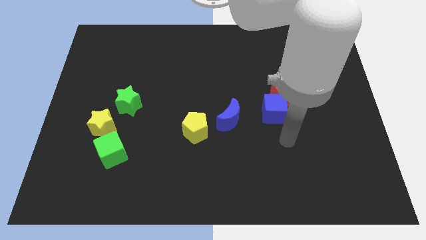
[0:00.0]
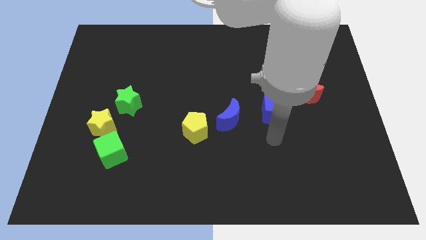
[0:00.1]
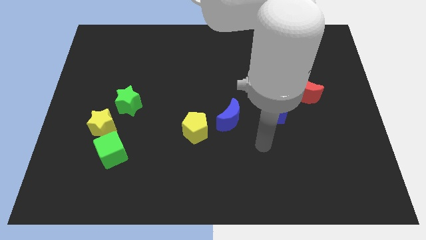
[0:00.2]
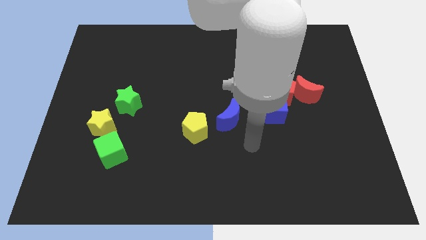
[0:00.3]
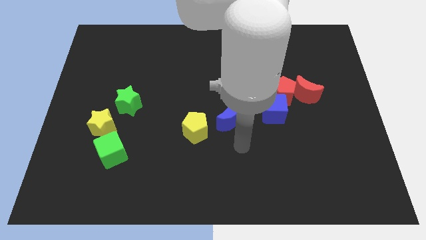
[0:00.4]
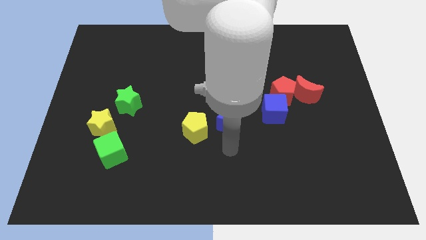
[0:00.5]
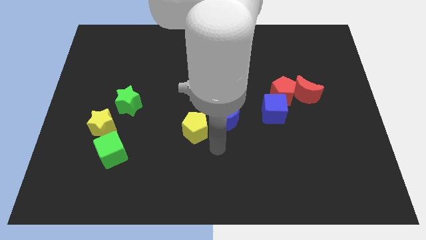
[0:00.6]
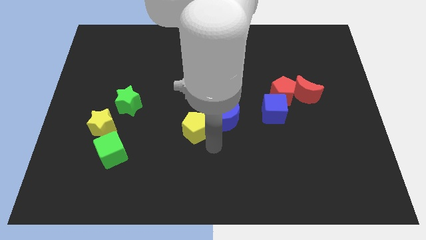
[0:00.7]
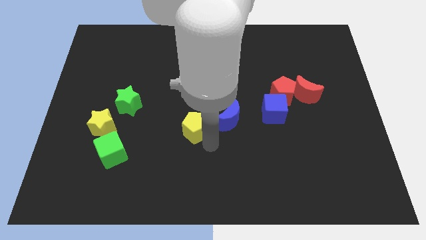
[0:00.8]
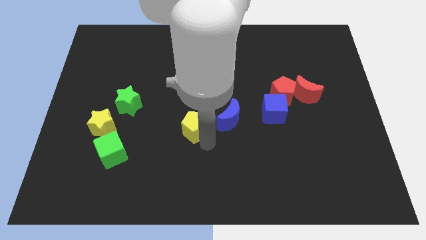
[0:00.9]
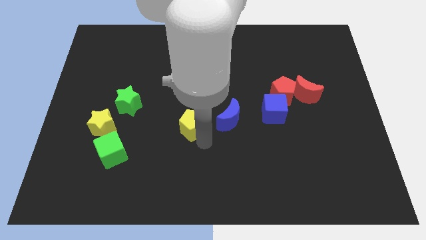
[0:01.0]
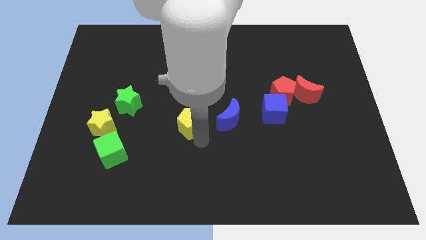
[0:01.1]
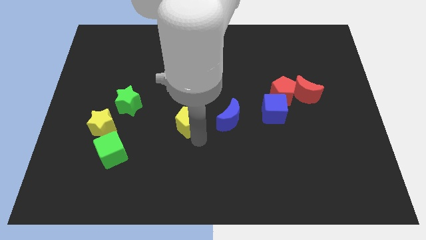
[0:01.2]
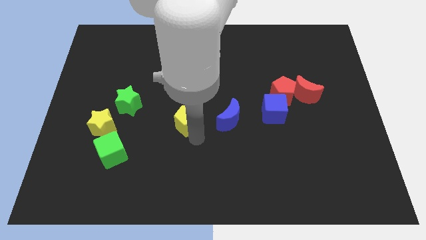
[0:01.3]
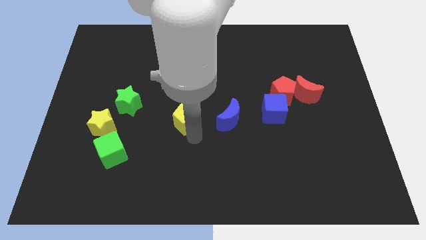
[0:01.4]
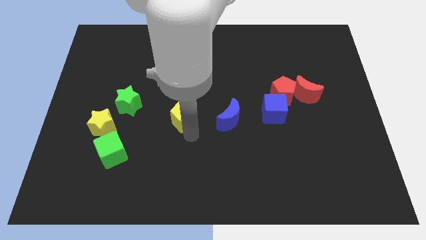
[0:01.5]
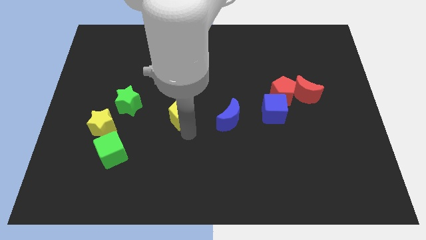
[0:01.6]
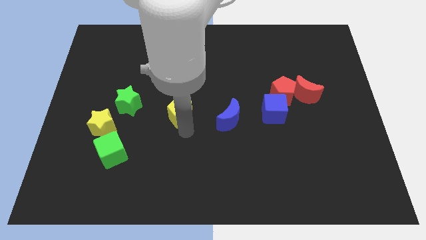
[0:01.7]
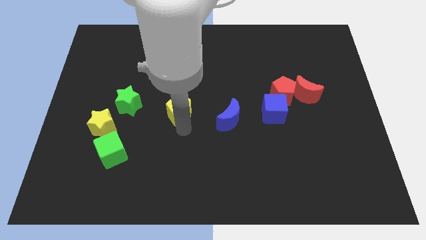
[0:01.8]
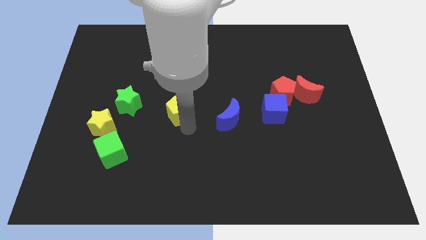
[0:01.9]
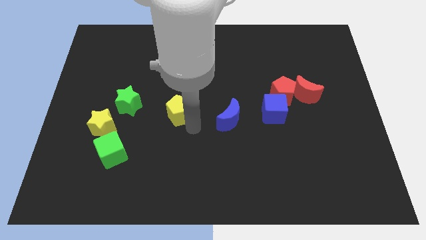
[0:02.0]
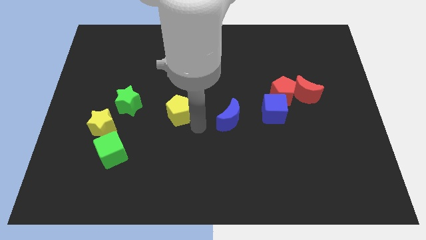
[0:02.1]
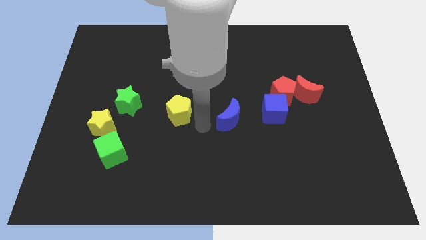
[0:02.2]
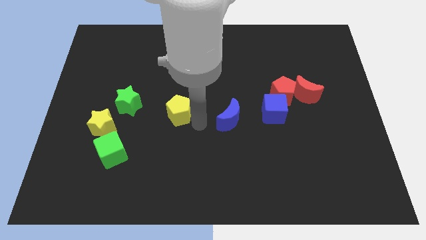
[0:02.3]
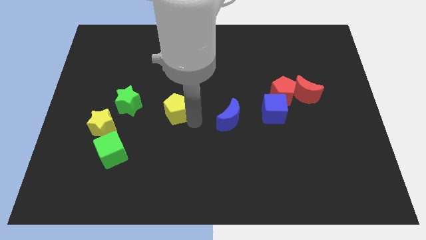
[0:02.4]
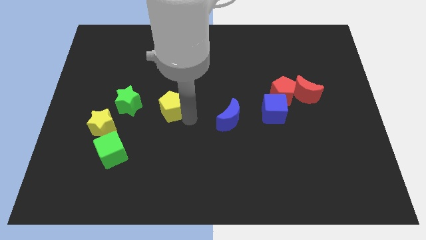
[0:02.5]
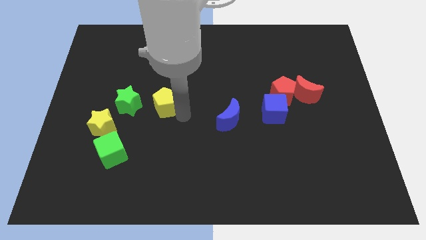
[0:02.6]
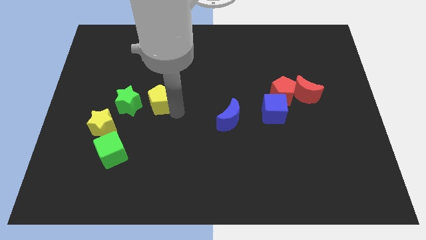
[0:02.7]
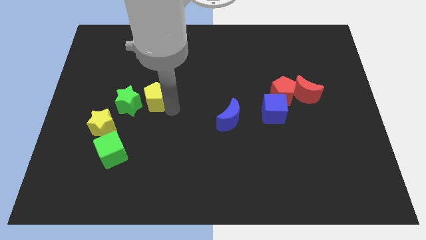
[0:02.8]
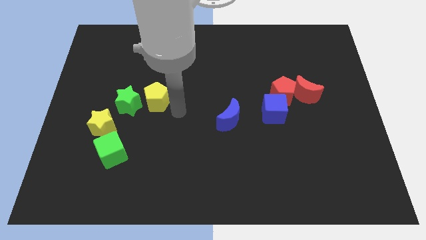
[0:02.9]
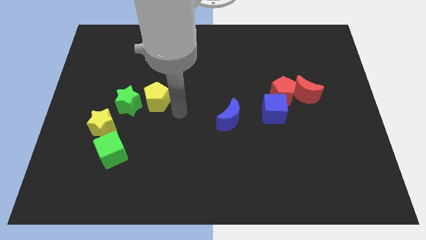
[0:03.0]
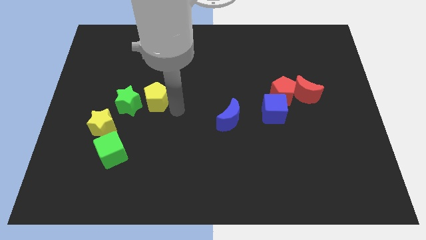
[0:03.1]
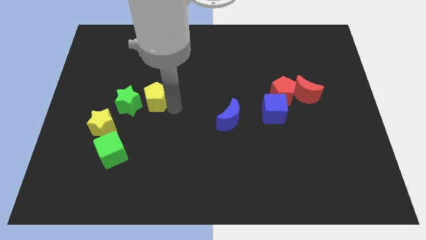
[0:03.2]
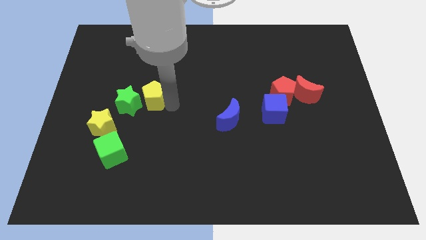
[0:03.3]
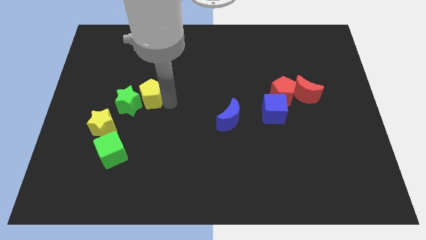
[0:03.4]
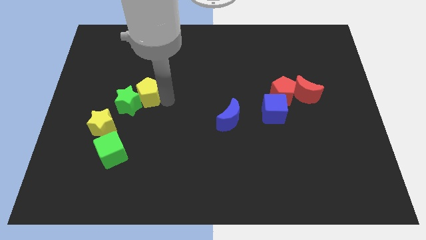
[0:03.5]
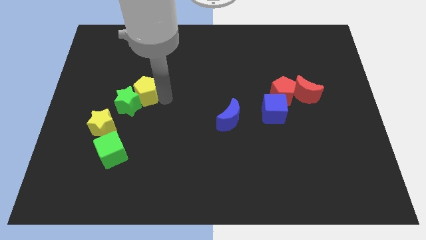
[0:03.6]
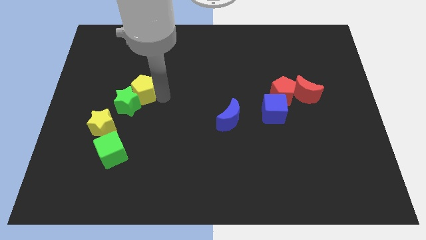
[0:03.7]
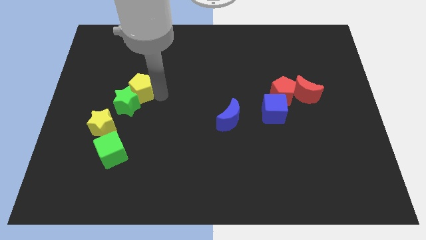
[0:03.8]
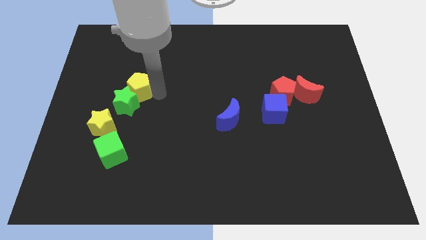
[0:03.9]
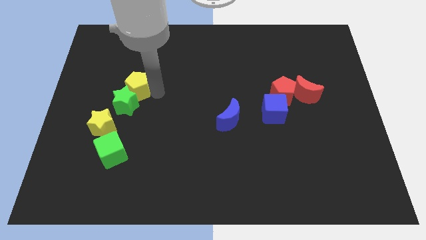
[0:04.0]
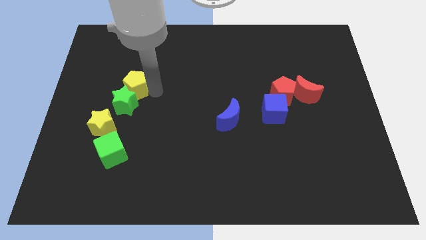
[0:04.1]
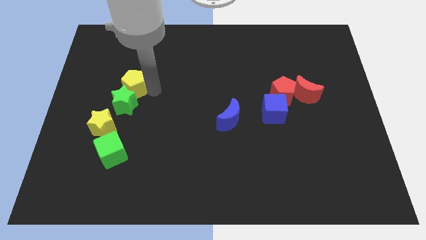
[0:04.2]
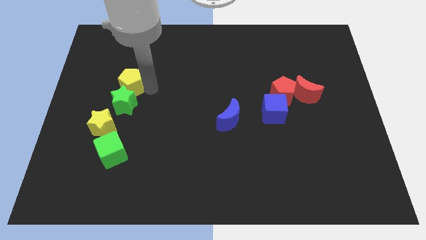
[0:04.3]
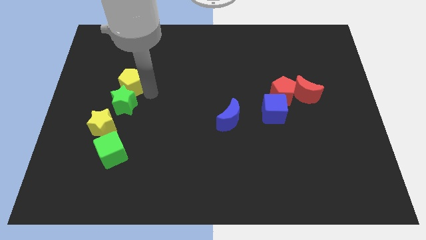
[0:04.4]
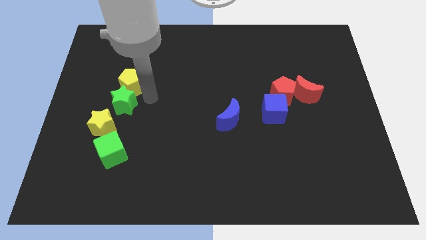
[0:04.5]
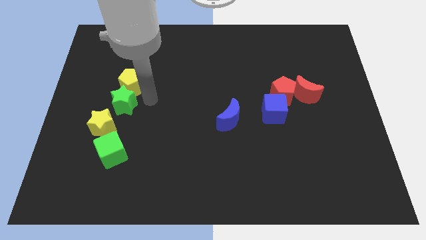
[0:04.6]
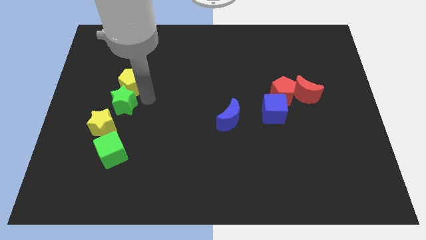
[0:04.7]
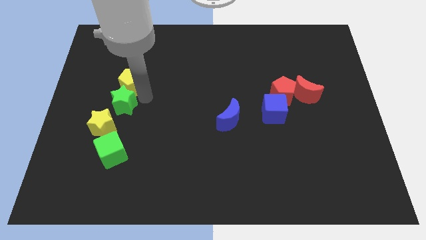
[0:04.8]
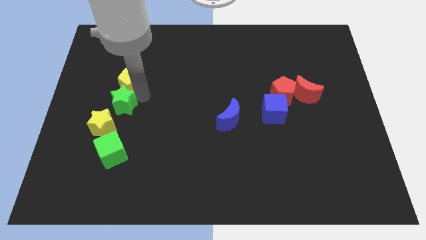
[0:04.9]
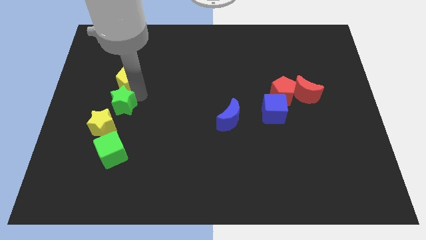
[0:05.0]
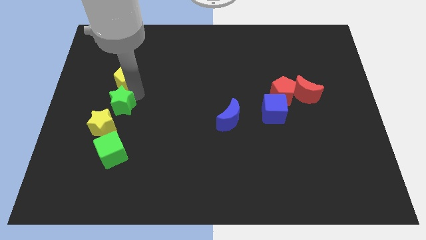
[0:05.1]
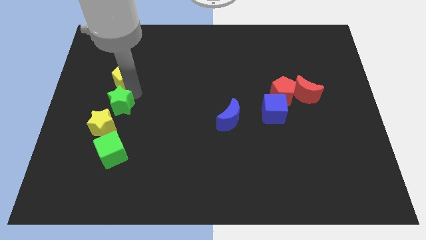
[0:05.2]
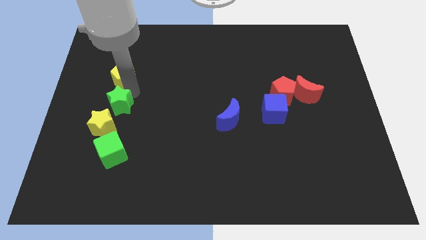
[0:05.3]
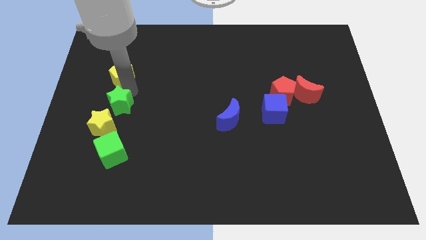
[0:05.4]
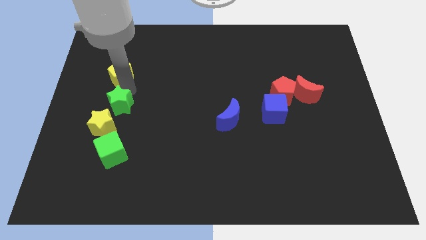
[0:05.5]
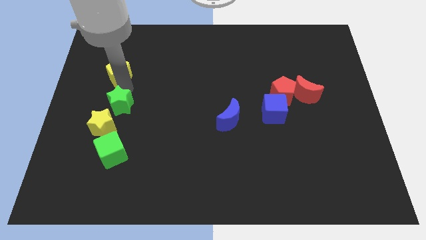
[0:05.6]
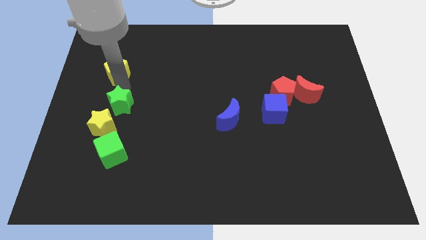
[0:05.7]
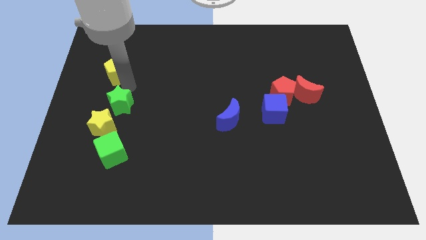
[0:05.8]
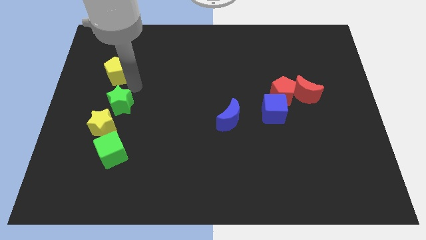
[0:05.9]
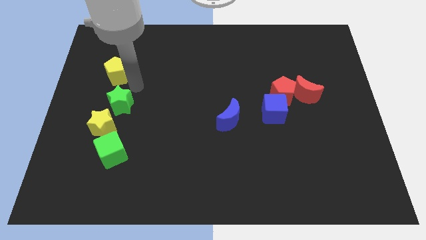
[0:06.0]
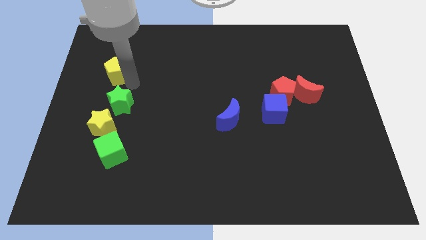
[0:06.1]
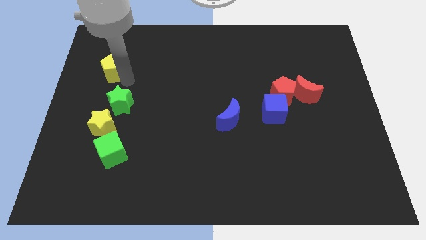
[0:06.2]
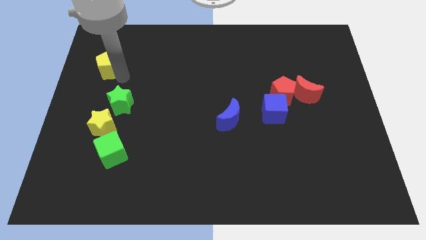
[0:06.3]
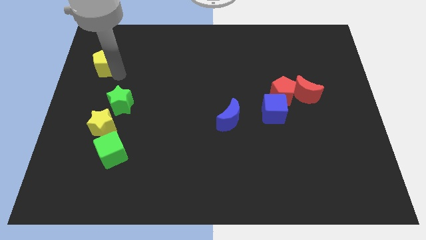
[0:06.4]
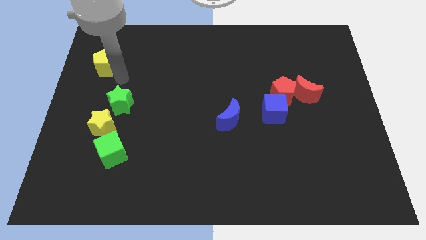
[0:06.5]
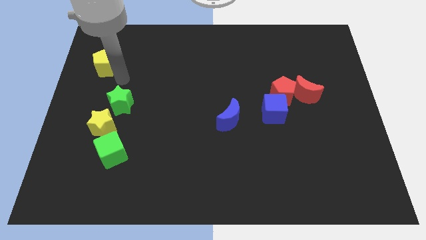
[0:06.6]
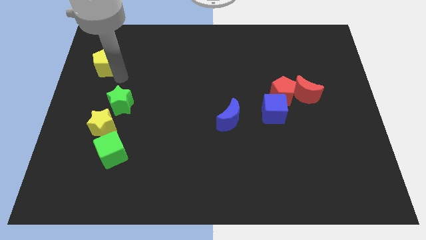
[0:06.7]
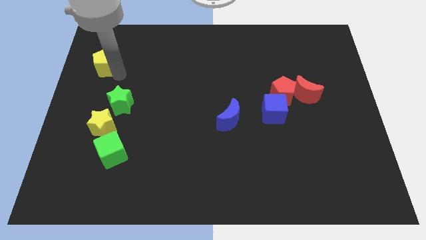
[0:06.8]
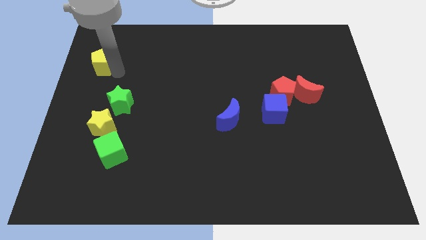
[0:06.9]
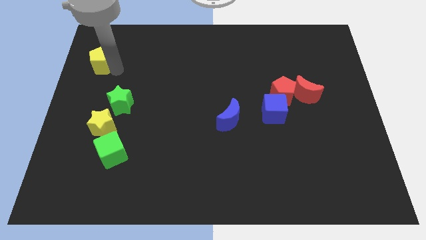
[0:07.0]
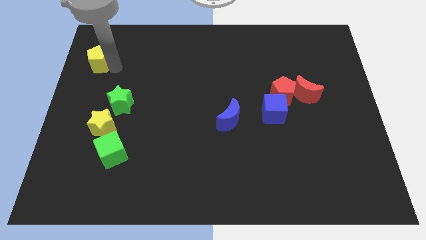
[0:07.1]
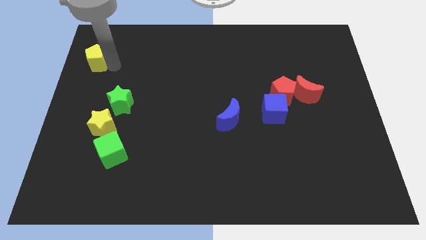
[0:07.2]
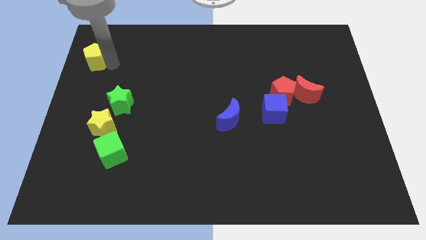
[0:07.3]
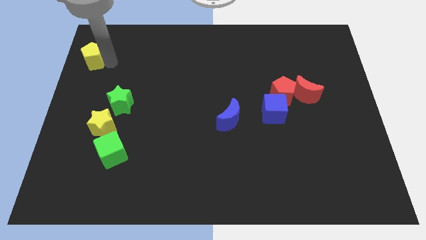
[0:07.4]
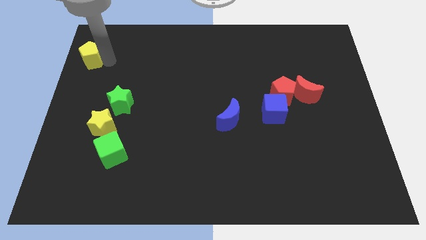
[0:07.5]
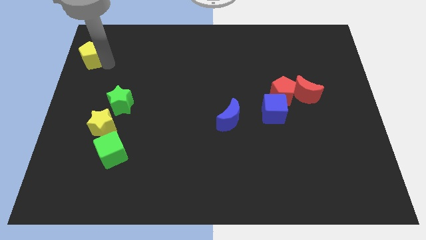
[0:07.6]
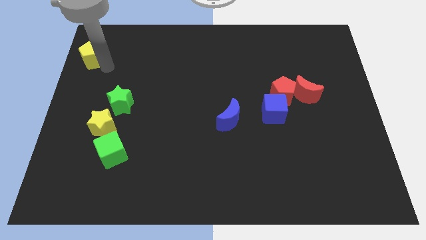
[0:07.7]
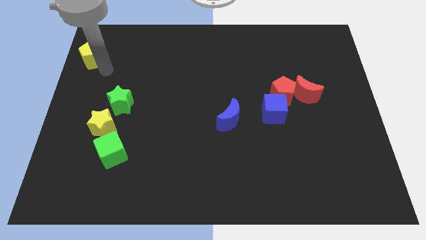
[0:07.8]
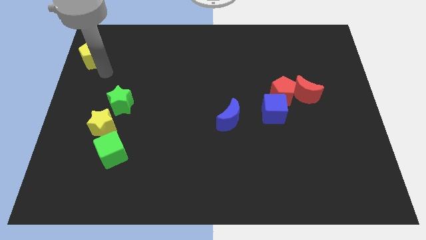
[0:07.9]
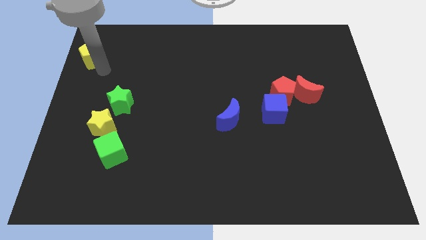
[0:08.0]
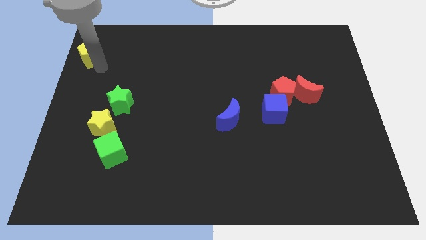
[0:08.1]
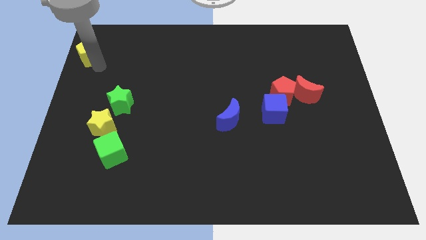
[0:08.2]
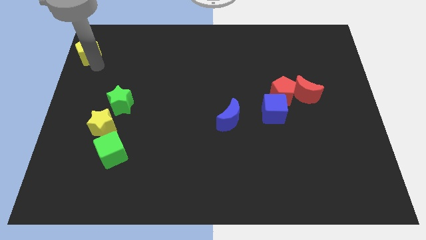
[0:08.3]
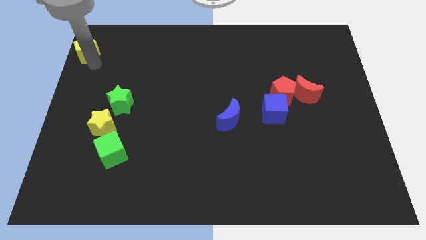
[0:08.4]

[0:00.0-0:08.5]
put the yellow pentagon to the top left of the board
